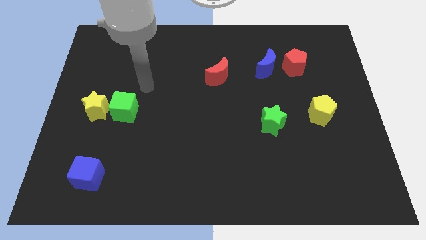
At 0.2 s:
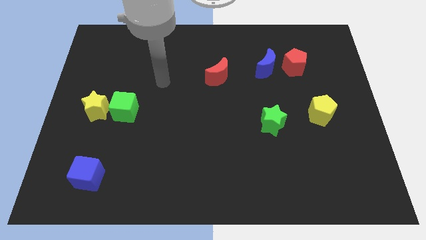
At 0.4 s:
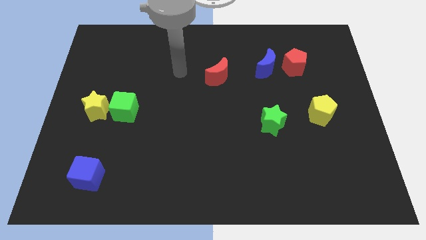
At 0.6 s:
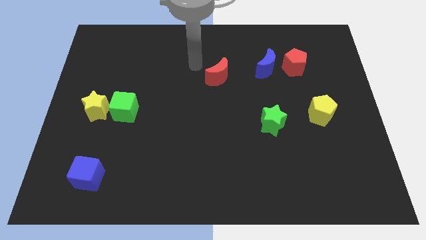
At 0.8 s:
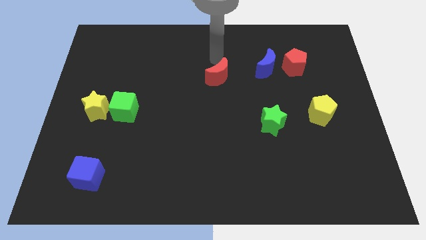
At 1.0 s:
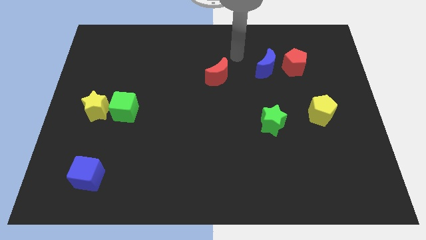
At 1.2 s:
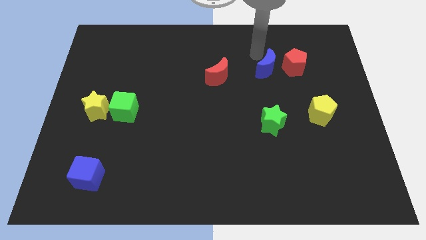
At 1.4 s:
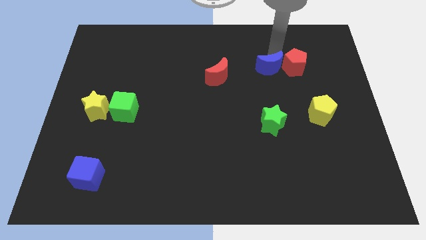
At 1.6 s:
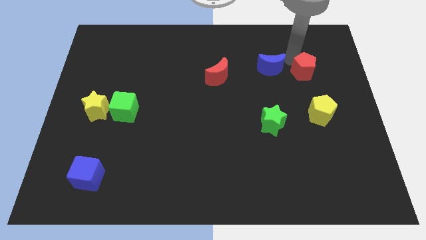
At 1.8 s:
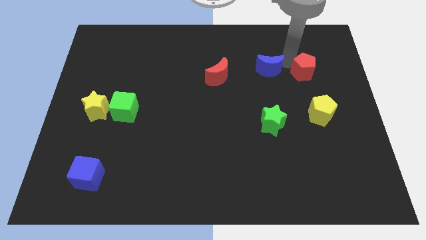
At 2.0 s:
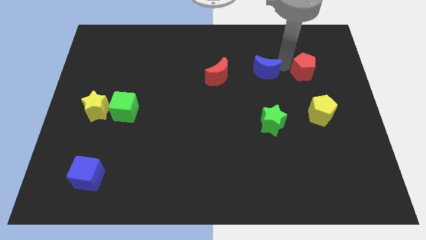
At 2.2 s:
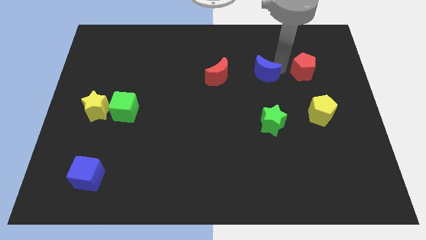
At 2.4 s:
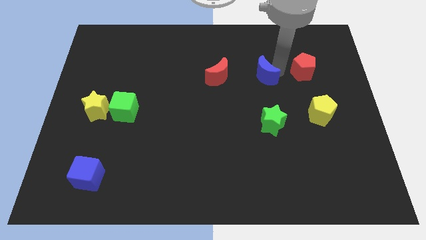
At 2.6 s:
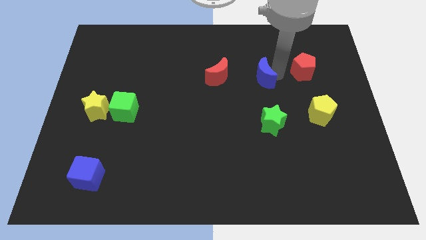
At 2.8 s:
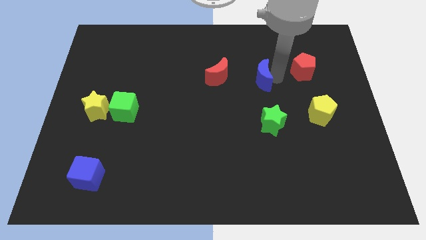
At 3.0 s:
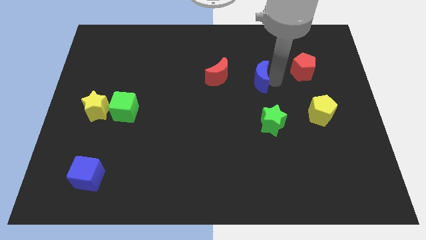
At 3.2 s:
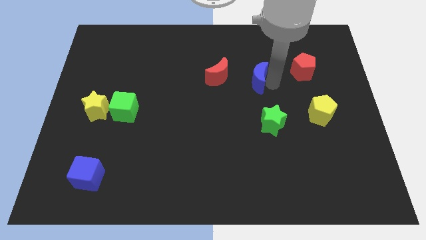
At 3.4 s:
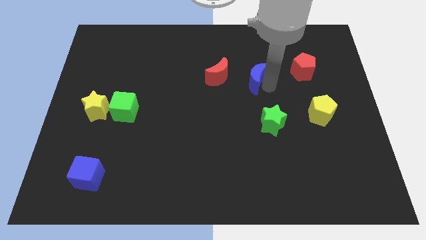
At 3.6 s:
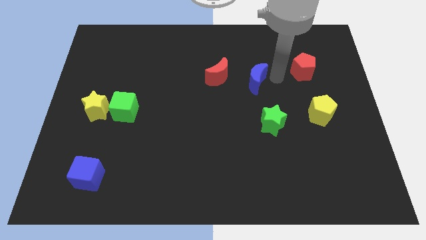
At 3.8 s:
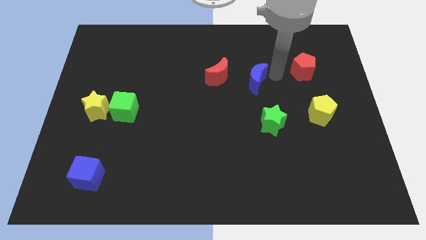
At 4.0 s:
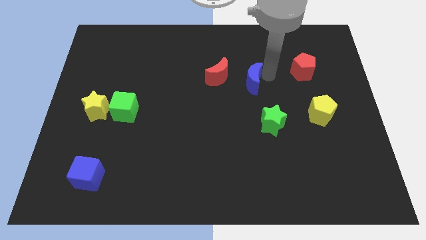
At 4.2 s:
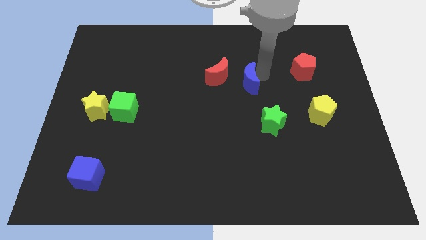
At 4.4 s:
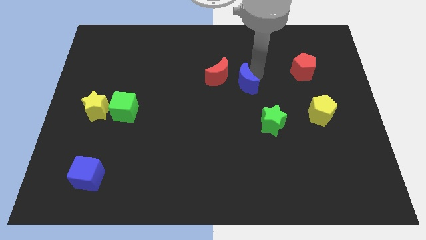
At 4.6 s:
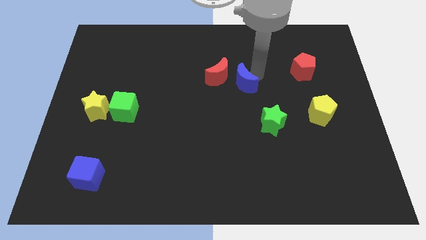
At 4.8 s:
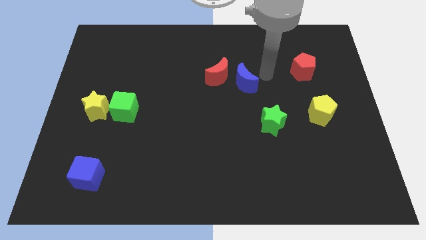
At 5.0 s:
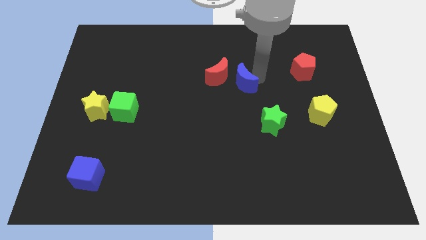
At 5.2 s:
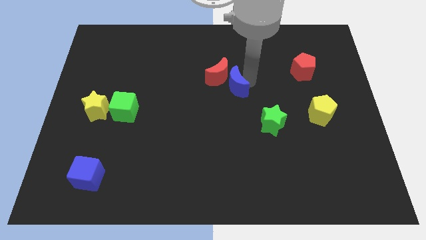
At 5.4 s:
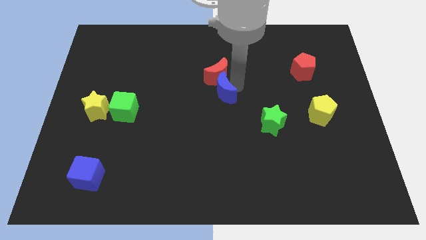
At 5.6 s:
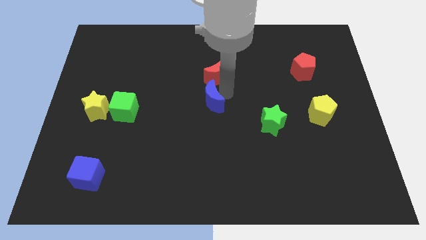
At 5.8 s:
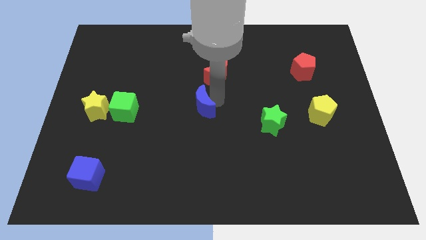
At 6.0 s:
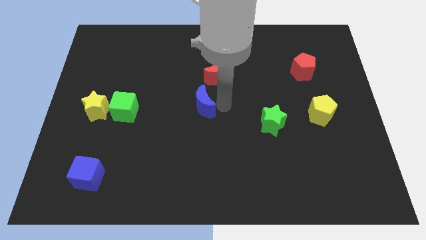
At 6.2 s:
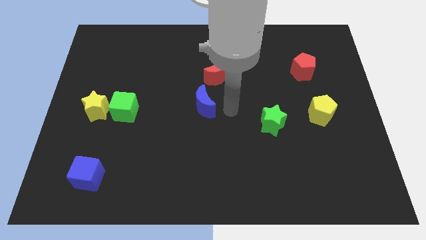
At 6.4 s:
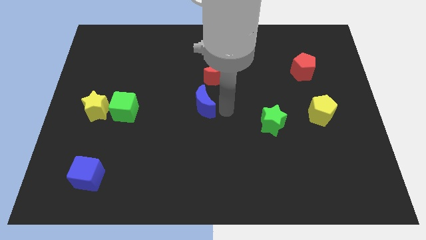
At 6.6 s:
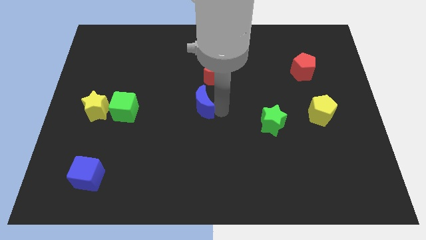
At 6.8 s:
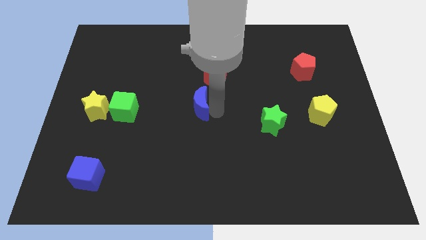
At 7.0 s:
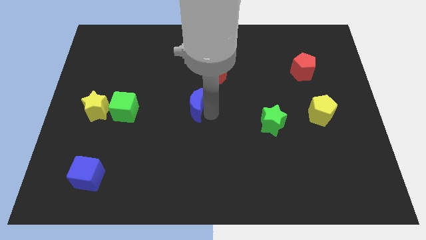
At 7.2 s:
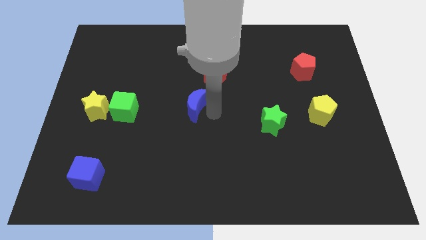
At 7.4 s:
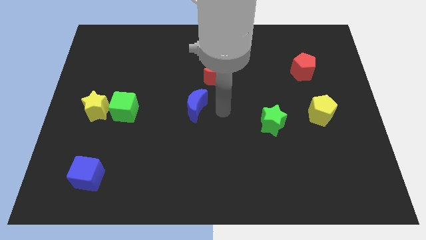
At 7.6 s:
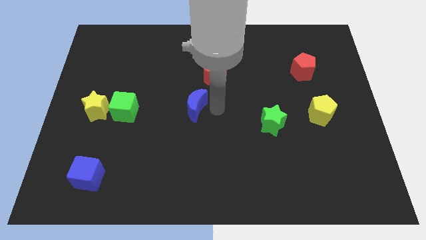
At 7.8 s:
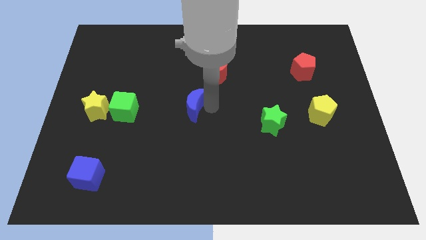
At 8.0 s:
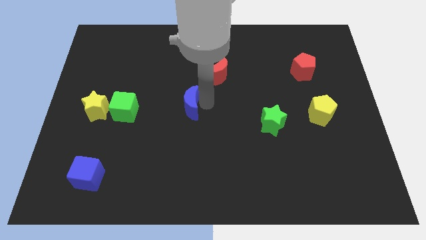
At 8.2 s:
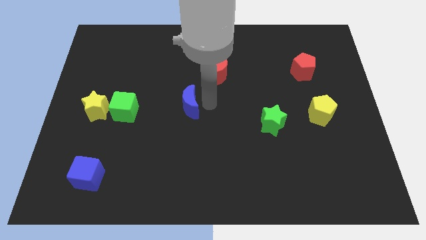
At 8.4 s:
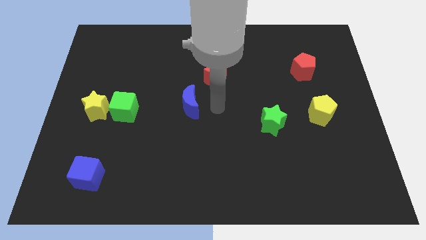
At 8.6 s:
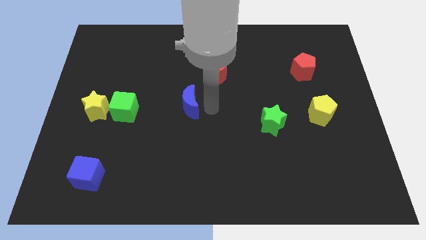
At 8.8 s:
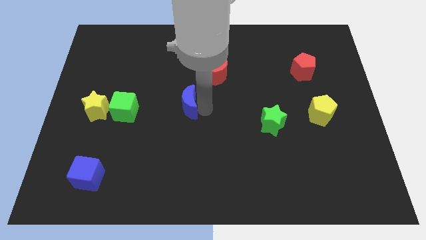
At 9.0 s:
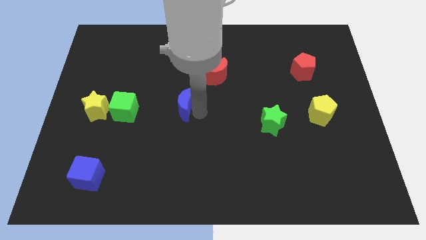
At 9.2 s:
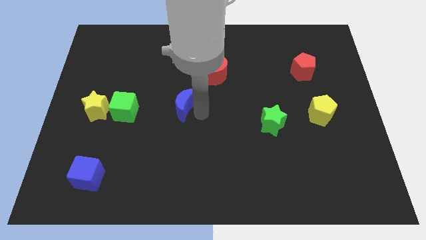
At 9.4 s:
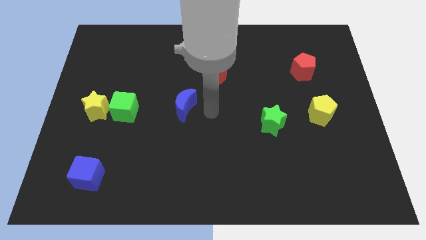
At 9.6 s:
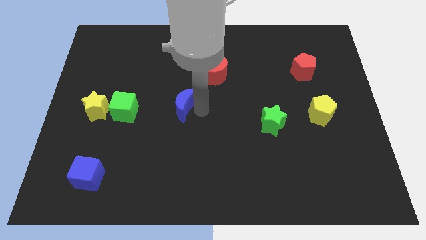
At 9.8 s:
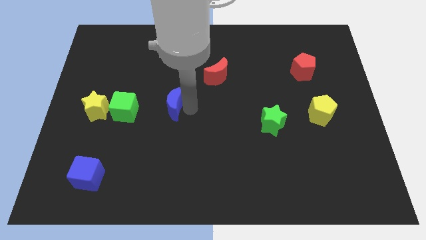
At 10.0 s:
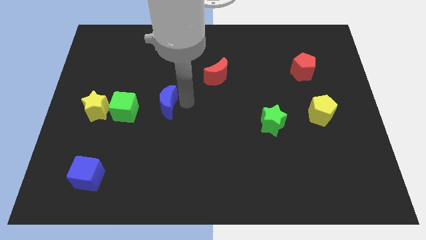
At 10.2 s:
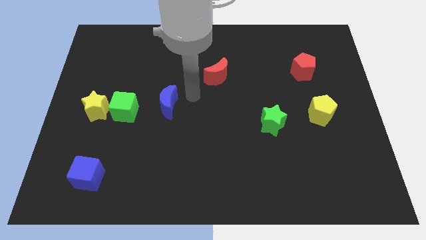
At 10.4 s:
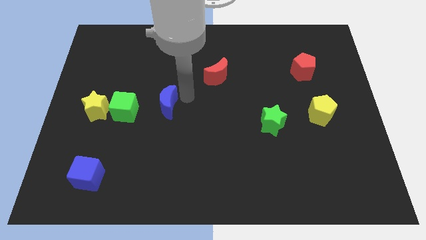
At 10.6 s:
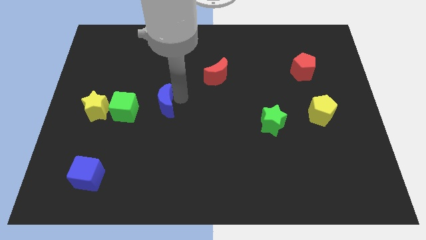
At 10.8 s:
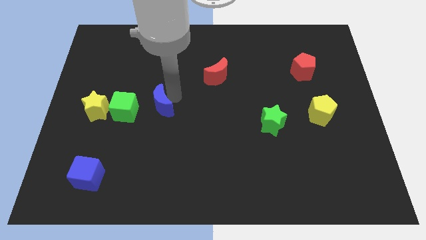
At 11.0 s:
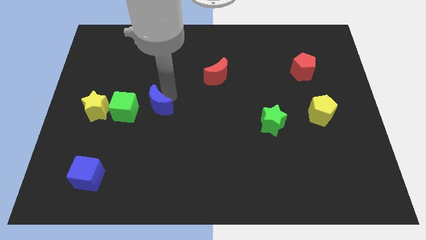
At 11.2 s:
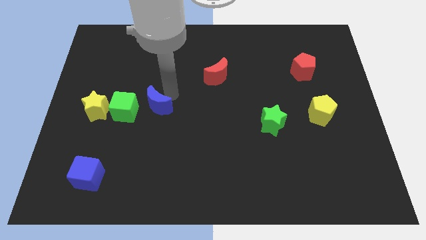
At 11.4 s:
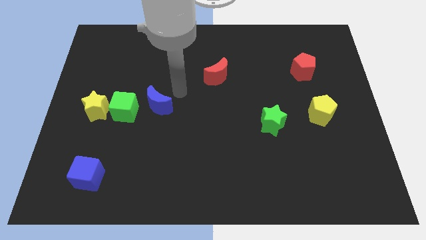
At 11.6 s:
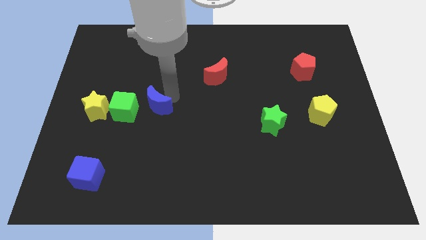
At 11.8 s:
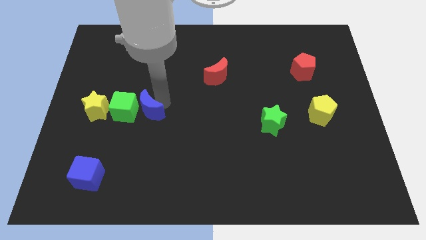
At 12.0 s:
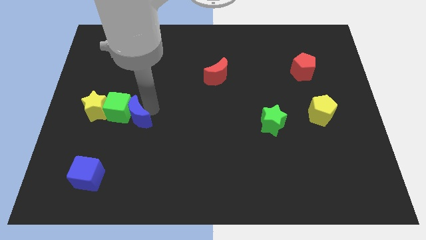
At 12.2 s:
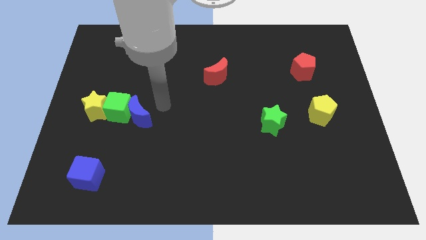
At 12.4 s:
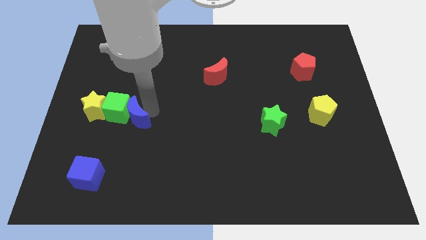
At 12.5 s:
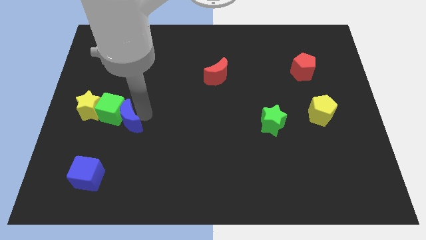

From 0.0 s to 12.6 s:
move the blue moon diagonally down and to the right of the yellow star
